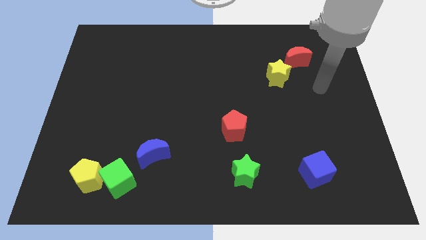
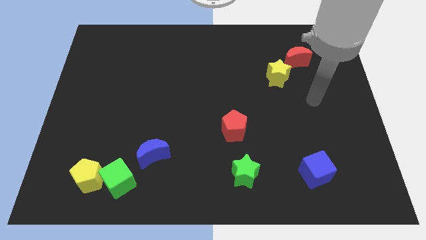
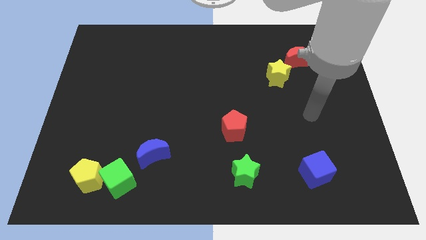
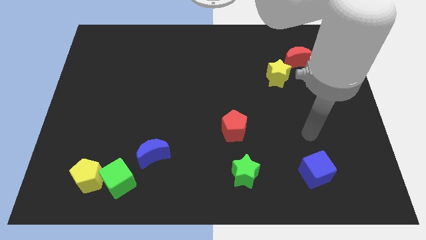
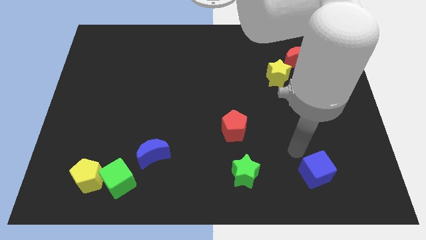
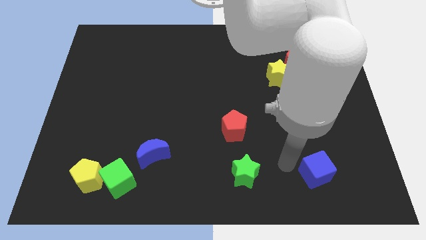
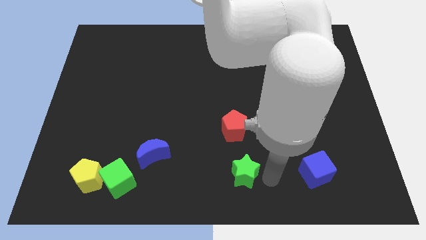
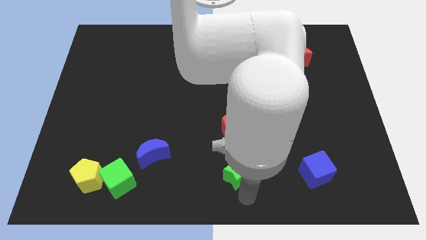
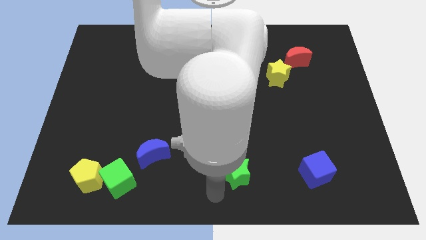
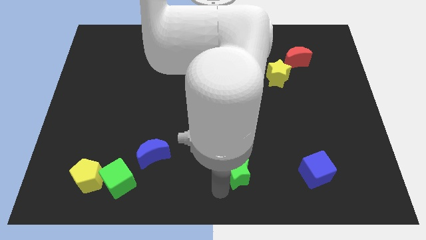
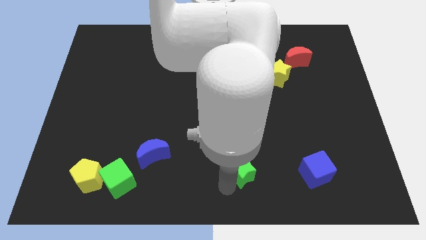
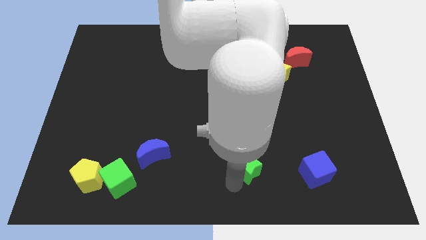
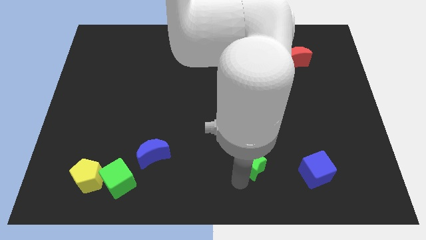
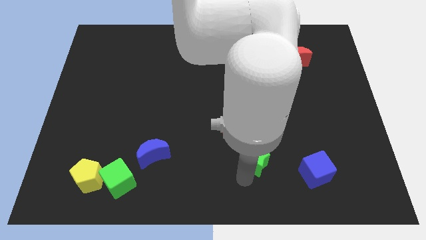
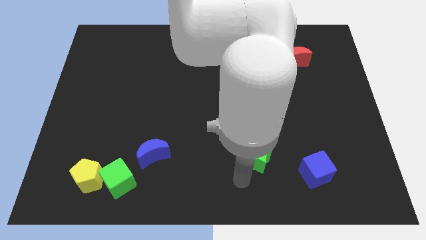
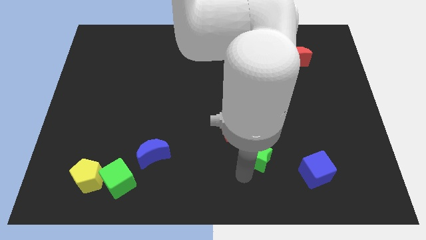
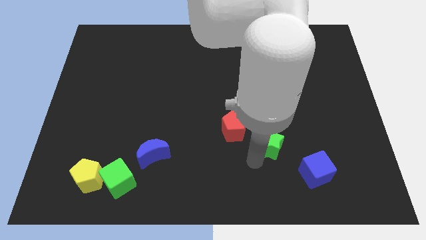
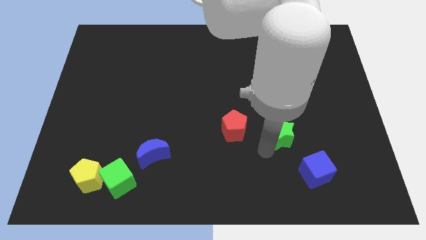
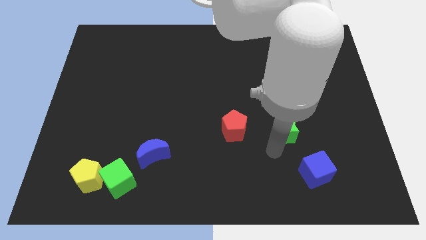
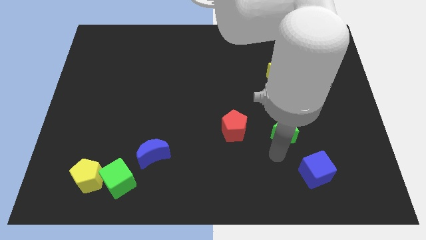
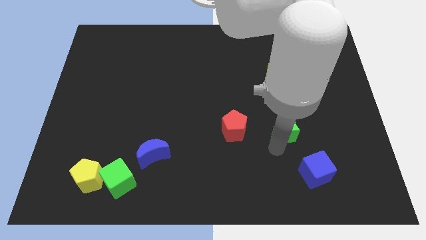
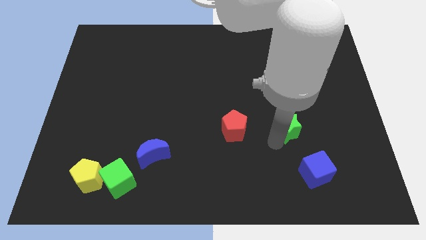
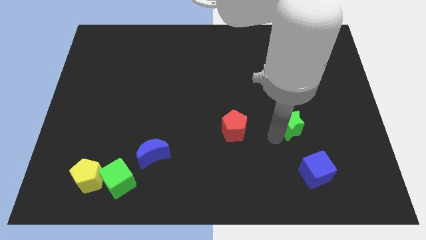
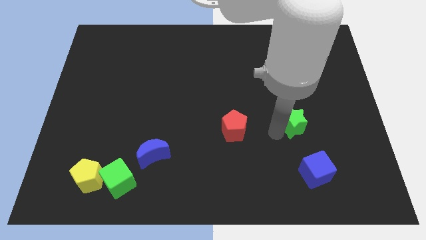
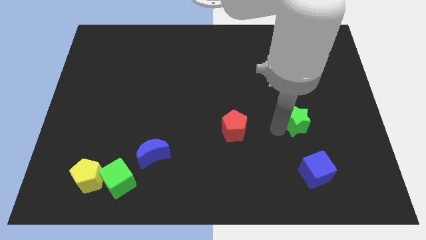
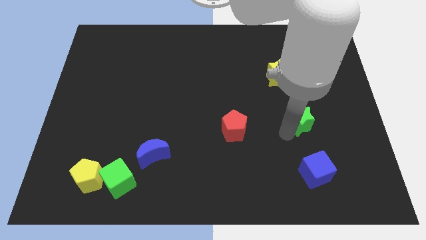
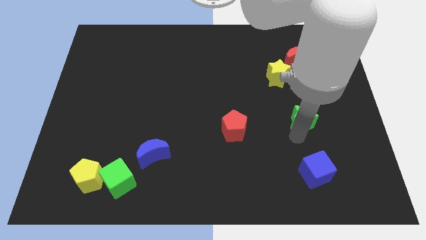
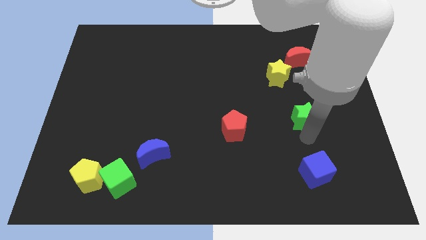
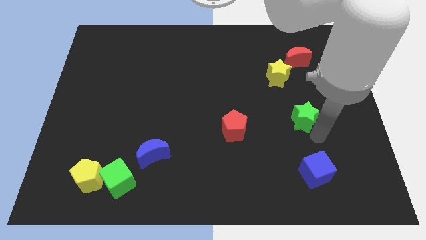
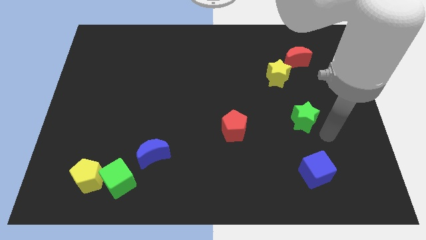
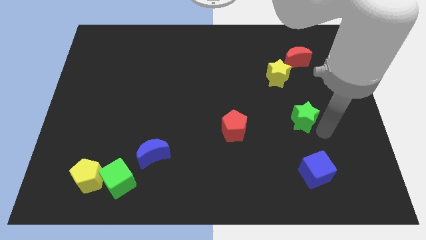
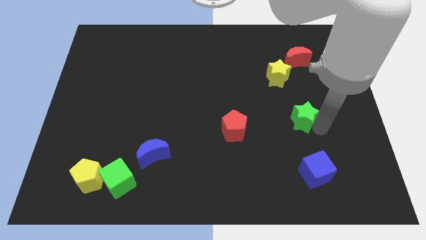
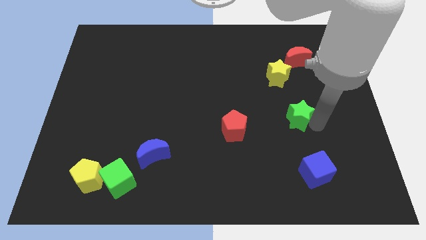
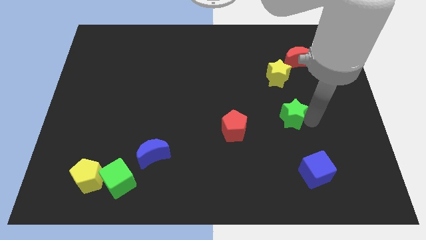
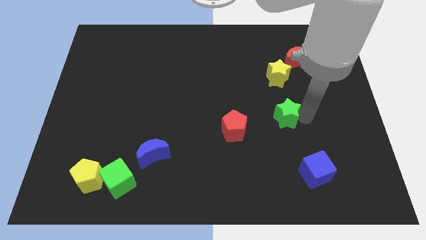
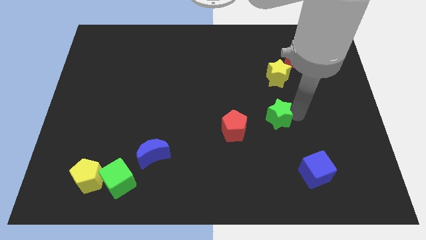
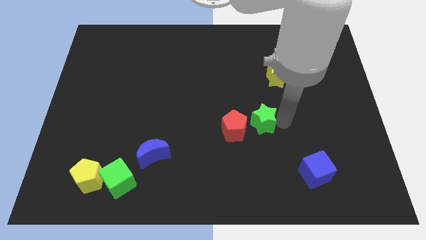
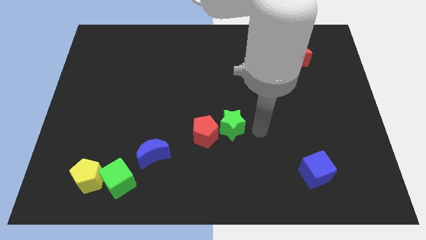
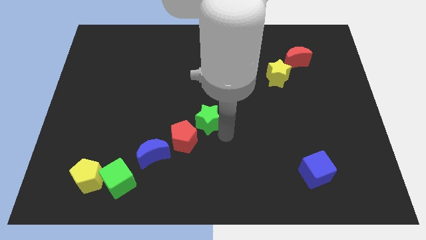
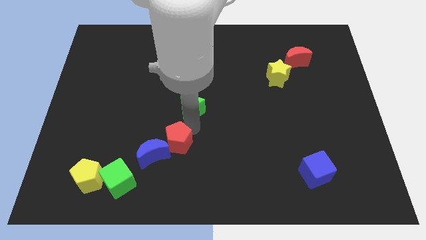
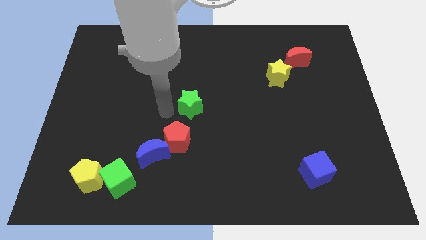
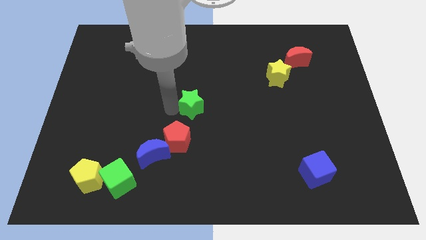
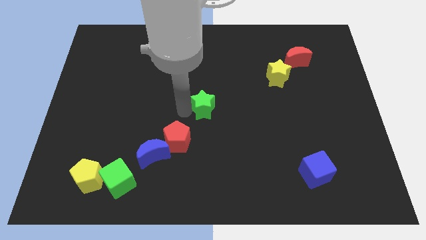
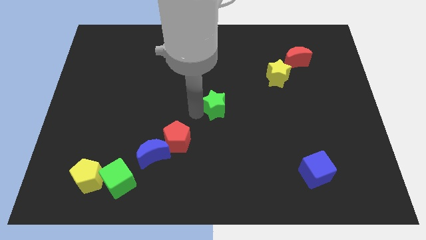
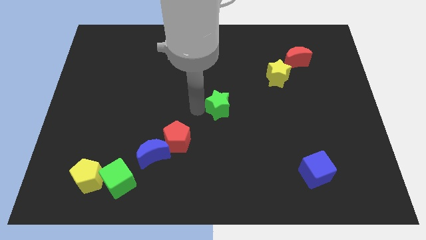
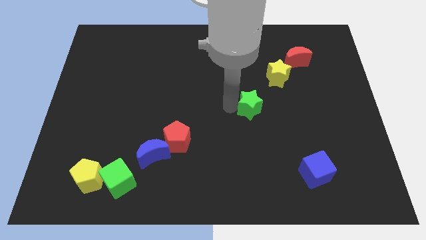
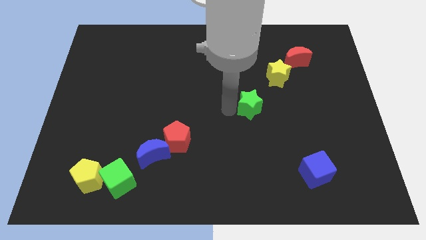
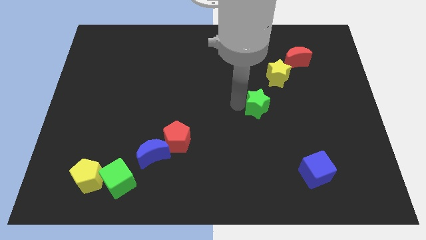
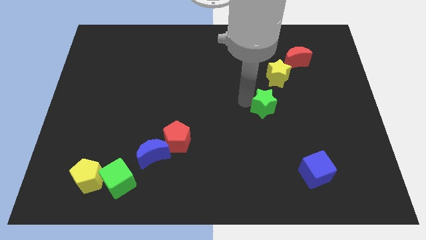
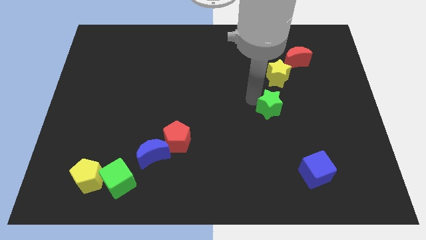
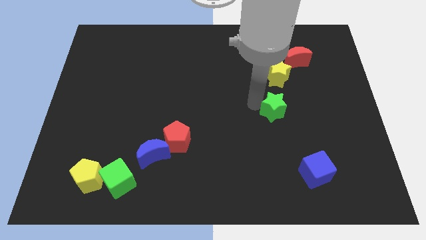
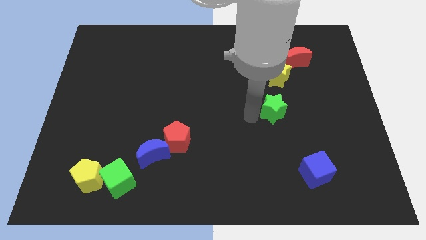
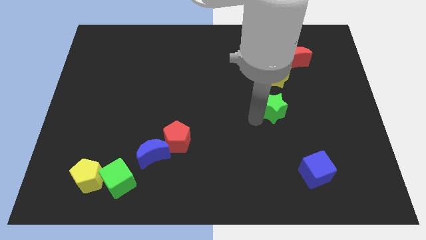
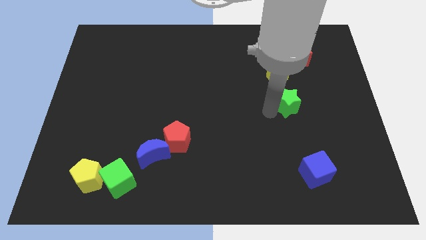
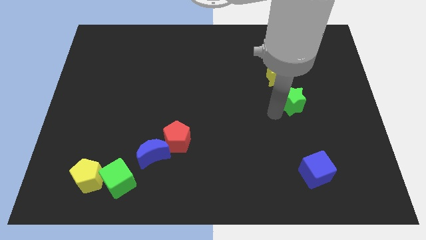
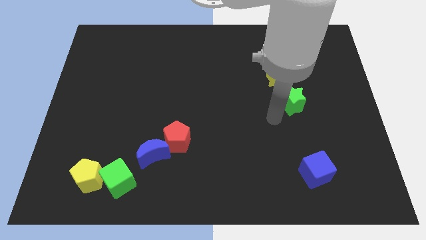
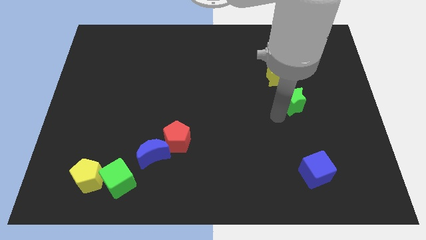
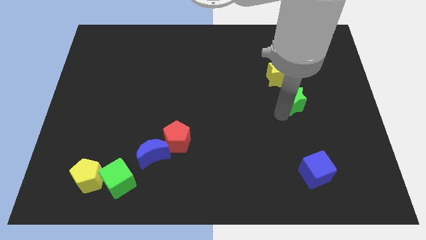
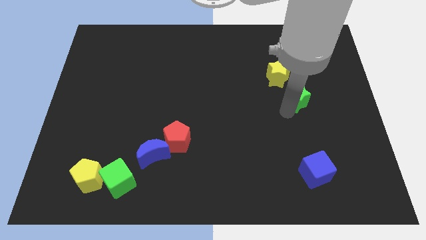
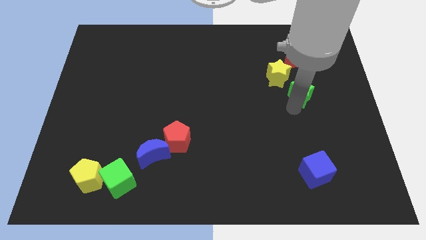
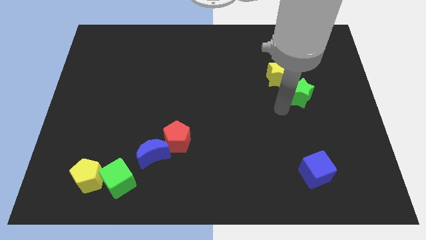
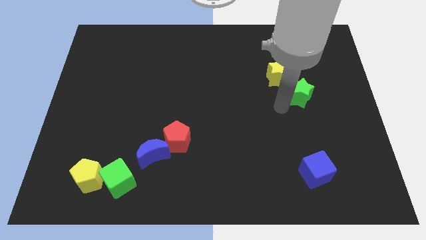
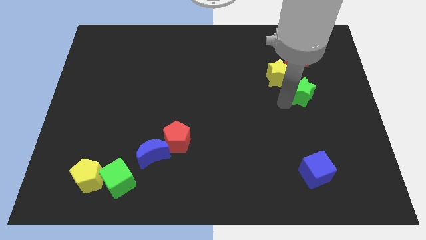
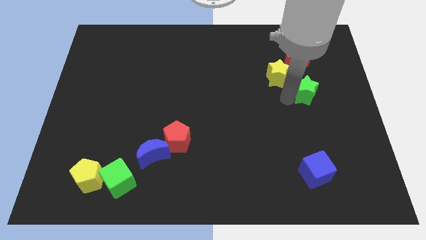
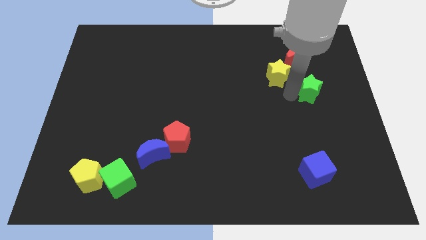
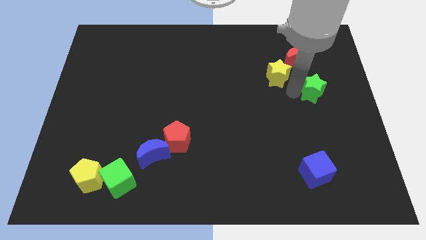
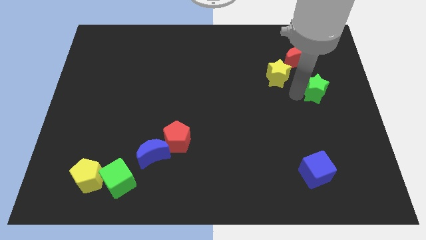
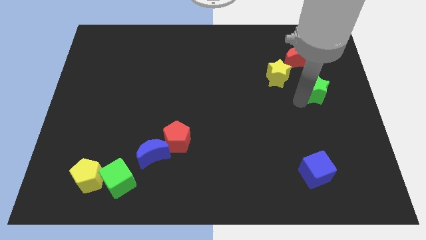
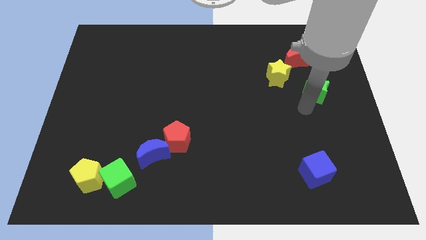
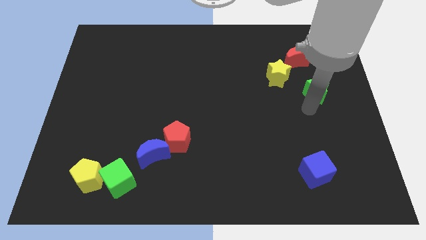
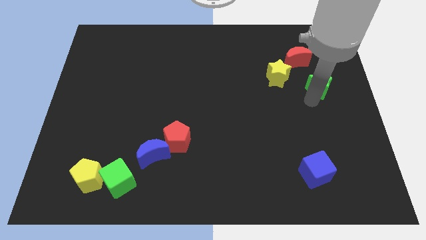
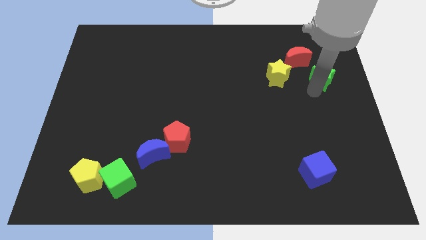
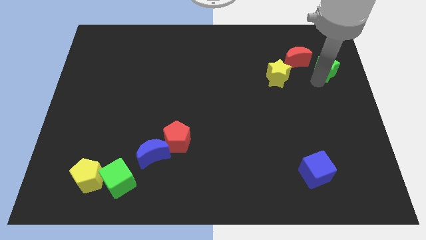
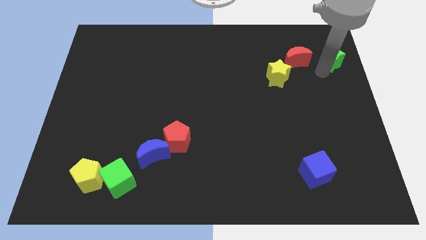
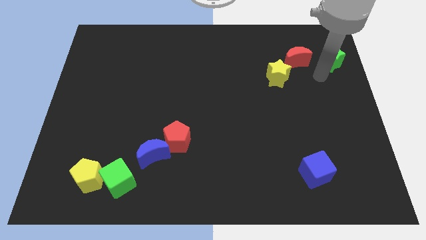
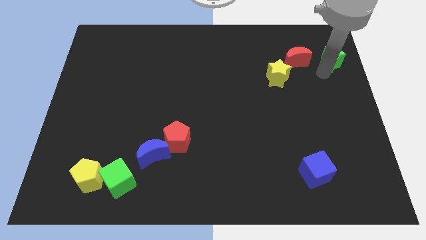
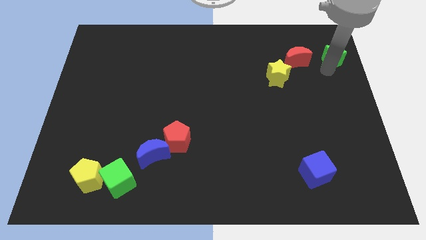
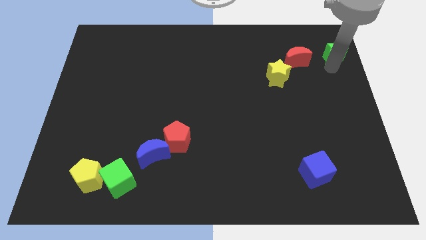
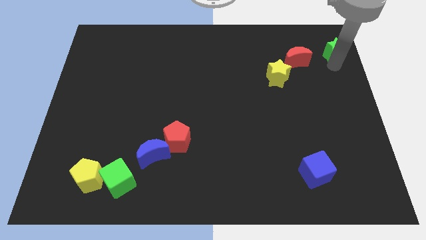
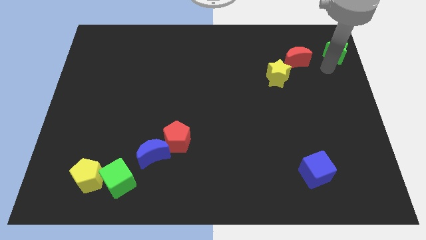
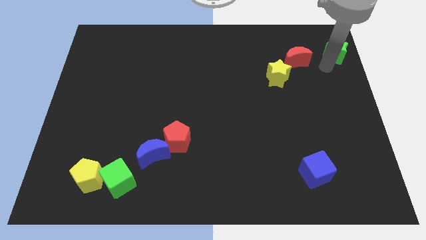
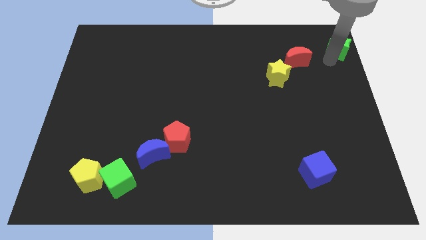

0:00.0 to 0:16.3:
slide the green star to the top right
